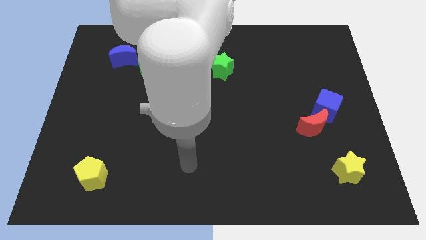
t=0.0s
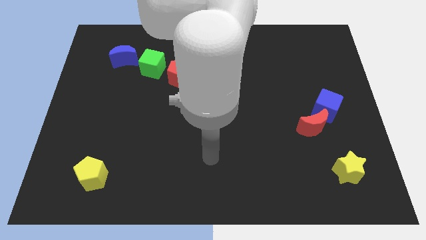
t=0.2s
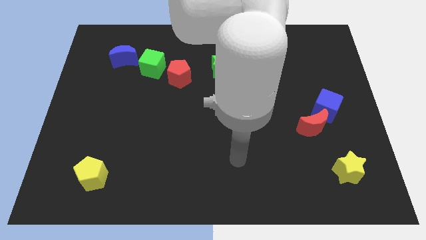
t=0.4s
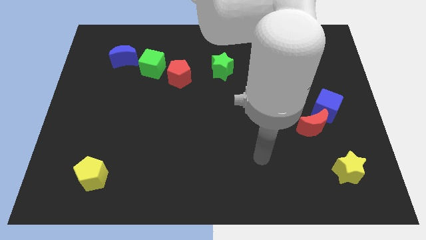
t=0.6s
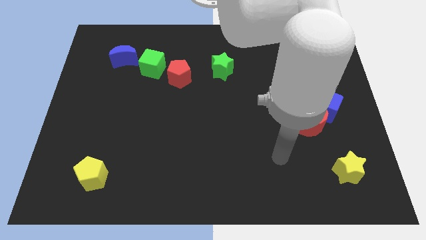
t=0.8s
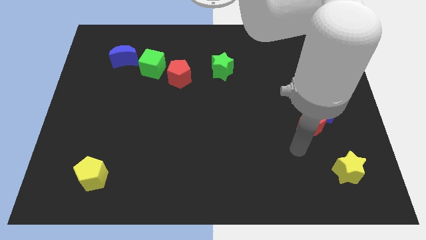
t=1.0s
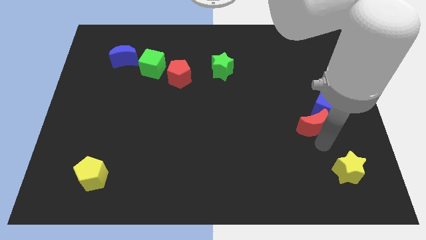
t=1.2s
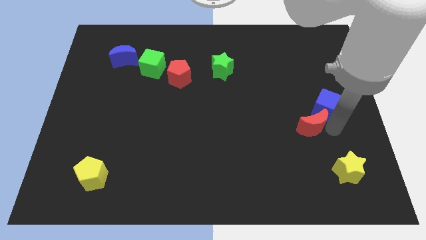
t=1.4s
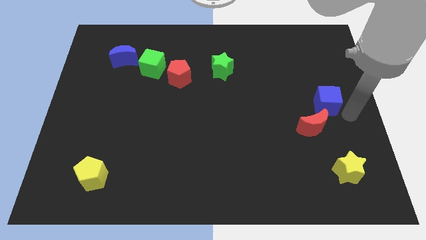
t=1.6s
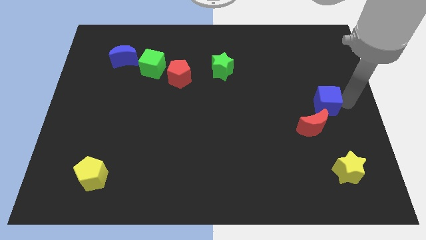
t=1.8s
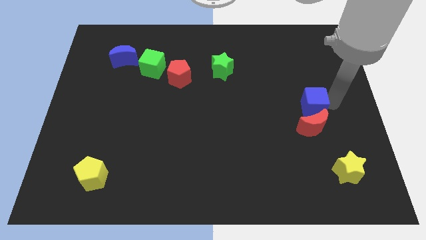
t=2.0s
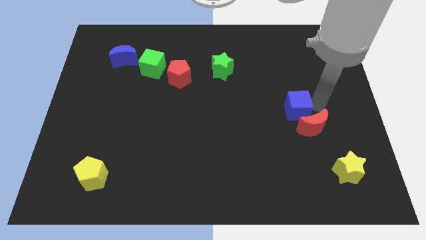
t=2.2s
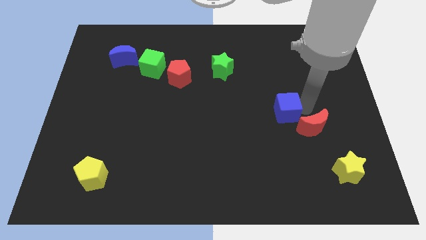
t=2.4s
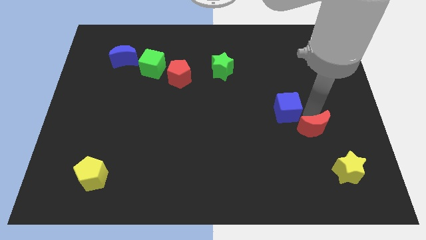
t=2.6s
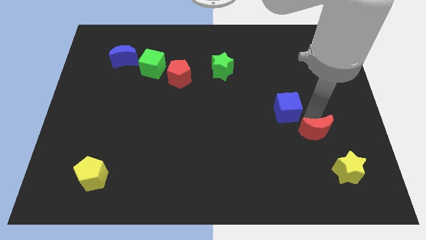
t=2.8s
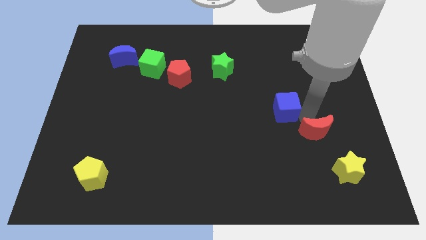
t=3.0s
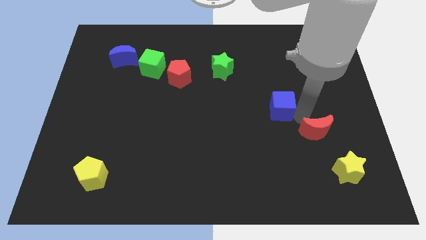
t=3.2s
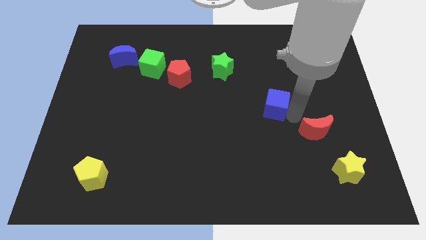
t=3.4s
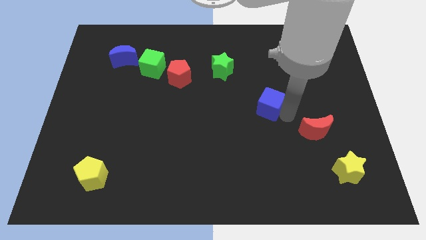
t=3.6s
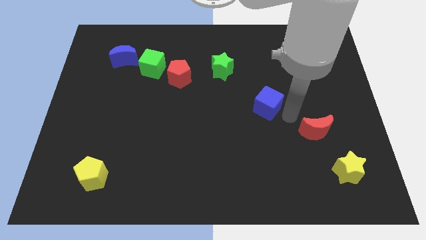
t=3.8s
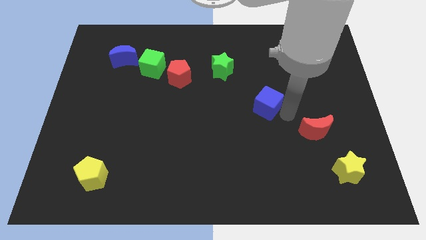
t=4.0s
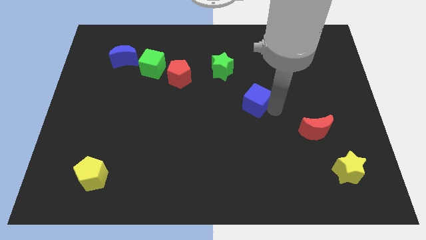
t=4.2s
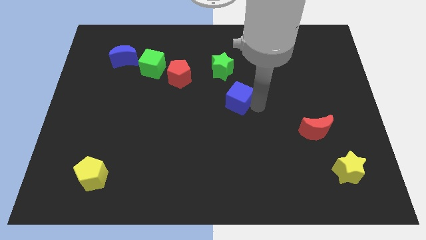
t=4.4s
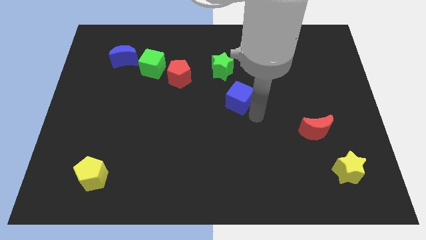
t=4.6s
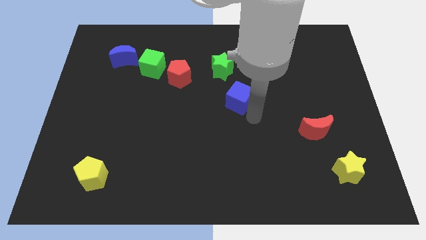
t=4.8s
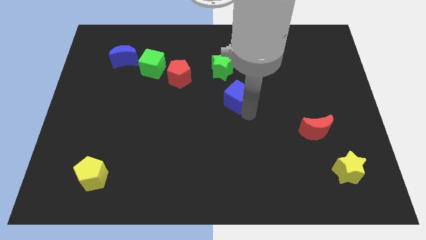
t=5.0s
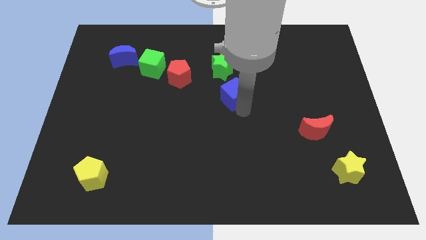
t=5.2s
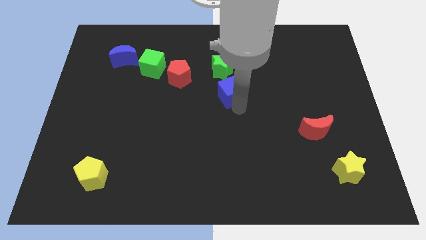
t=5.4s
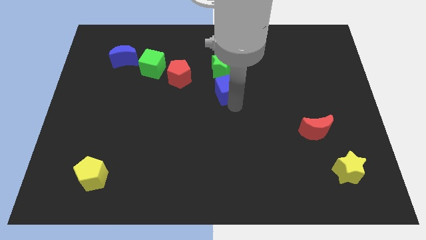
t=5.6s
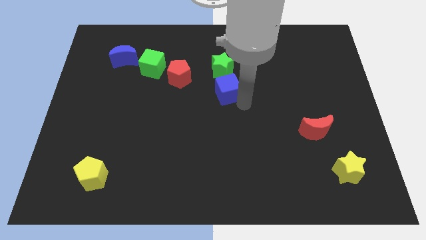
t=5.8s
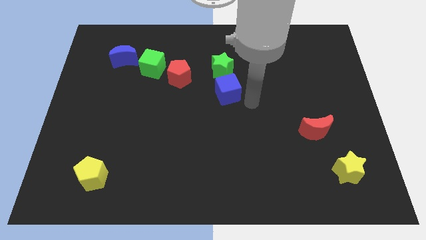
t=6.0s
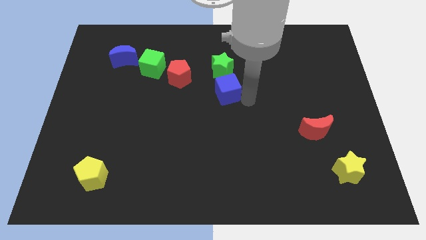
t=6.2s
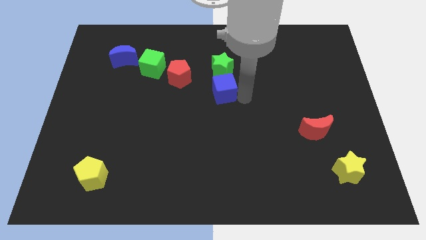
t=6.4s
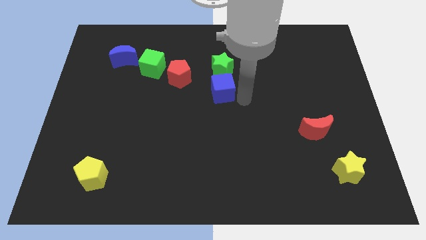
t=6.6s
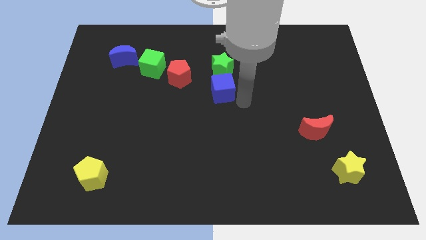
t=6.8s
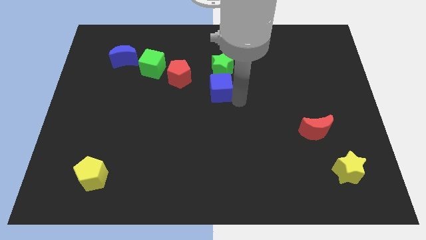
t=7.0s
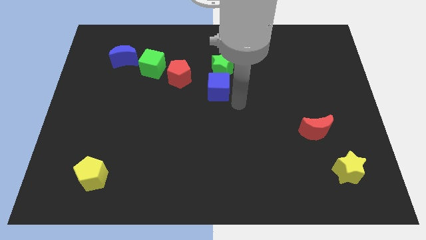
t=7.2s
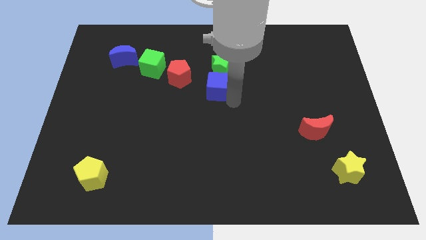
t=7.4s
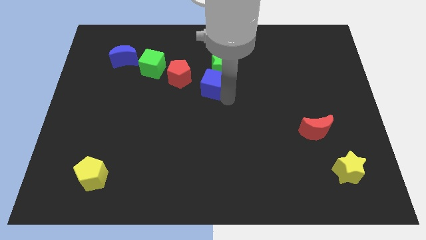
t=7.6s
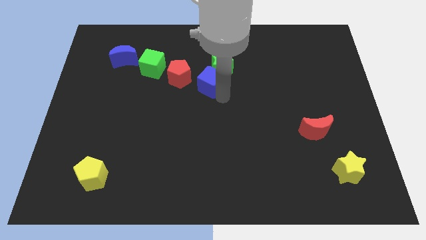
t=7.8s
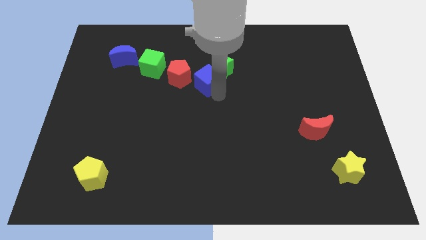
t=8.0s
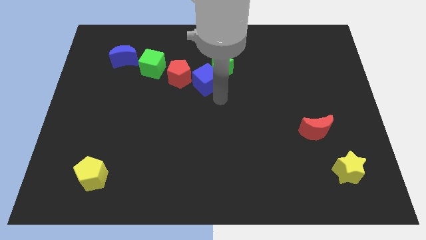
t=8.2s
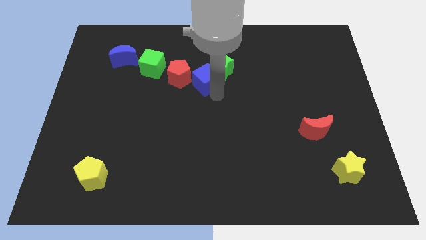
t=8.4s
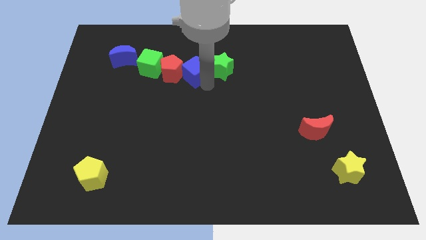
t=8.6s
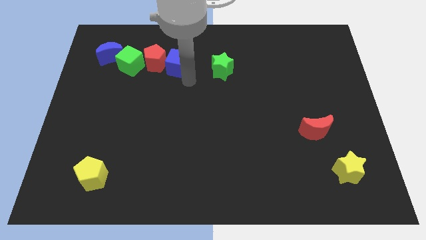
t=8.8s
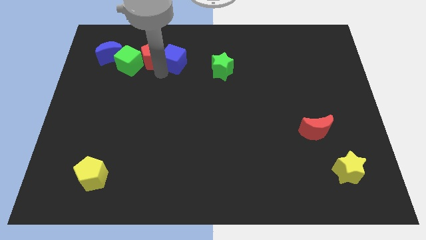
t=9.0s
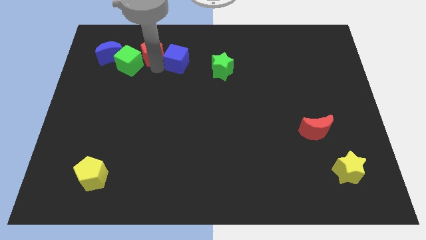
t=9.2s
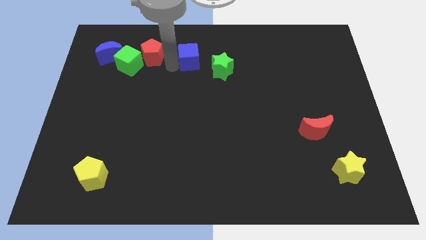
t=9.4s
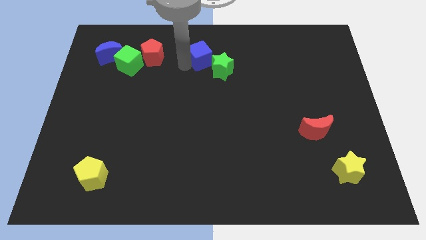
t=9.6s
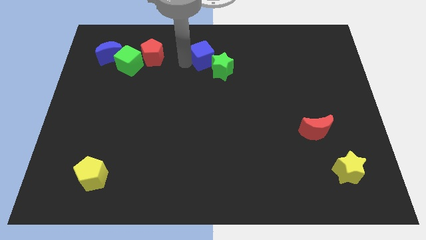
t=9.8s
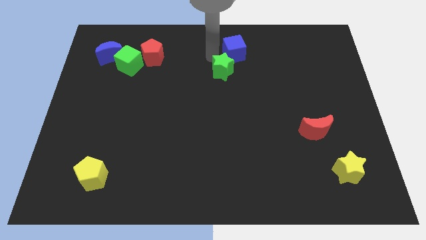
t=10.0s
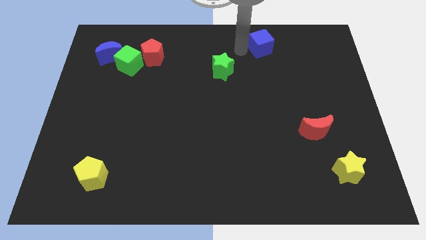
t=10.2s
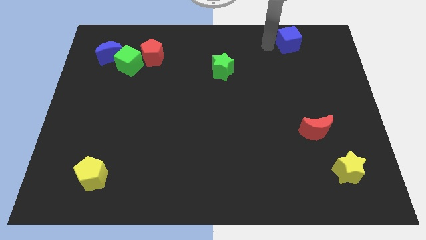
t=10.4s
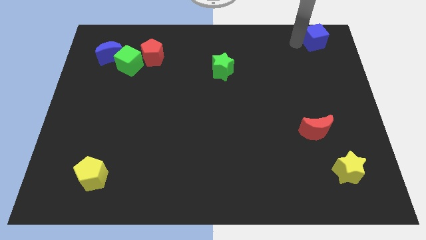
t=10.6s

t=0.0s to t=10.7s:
put the blue cube to the top right corner
